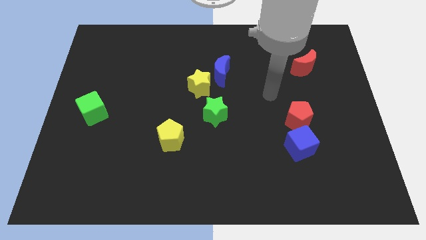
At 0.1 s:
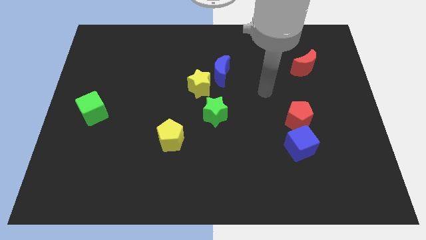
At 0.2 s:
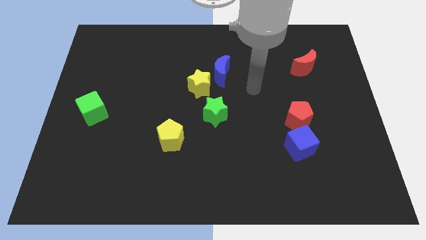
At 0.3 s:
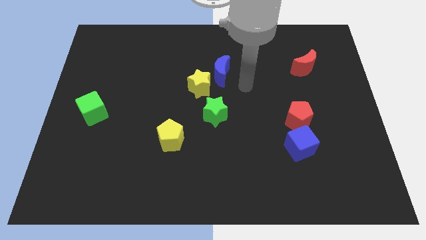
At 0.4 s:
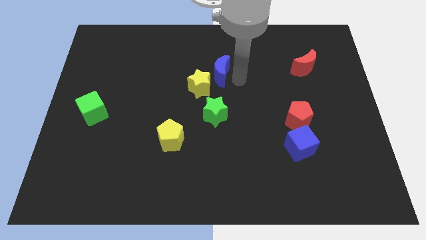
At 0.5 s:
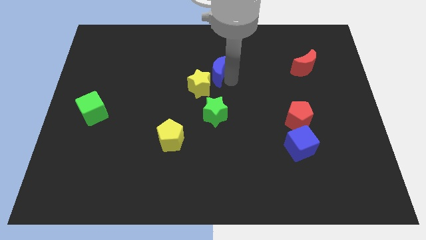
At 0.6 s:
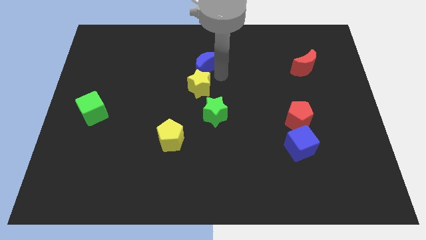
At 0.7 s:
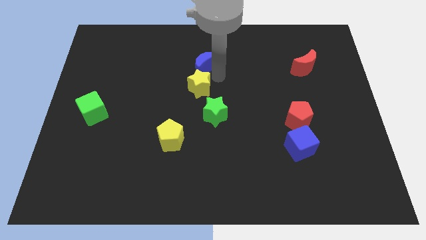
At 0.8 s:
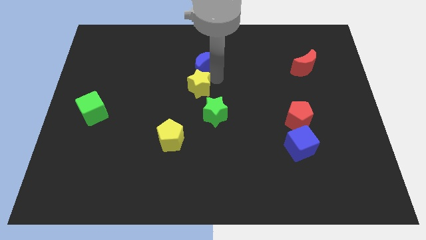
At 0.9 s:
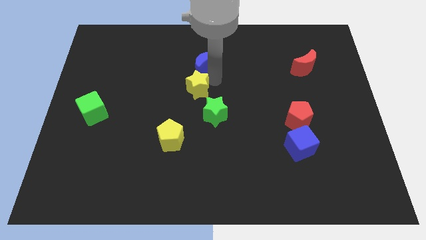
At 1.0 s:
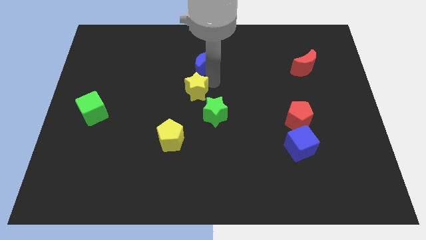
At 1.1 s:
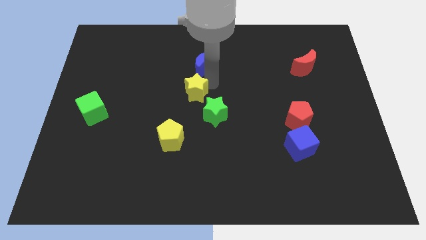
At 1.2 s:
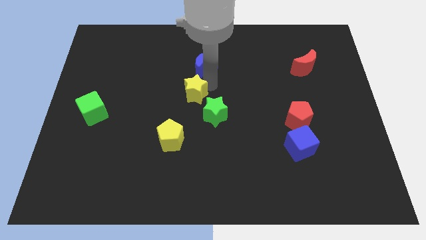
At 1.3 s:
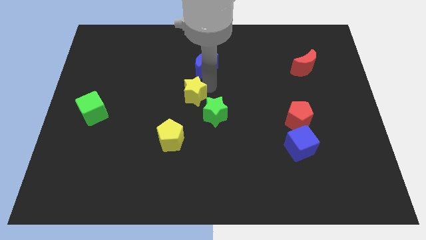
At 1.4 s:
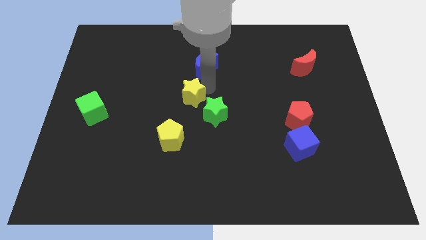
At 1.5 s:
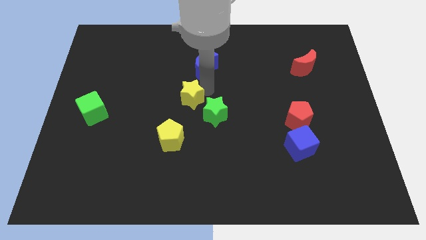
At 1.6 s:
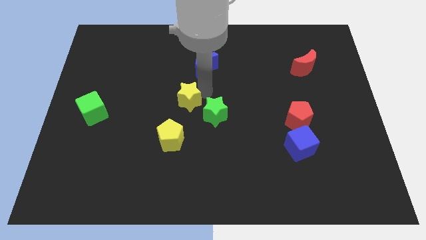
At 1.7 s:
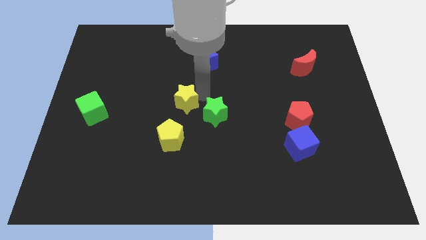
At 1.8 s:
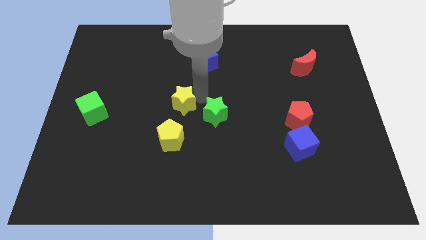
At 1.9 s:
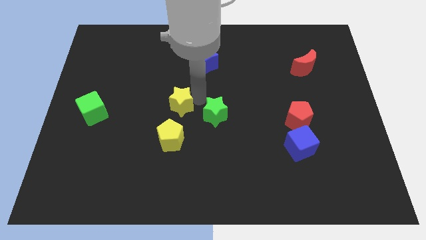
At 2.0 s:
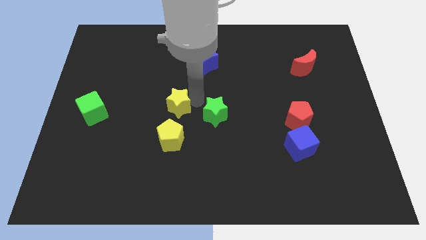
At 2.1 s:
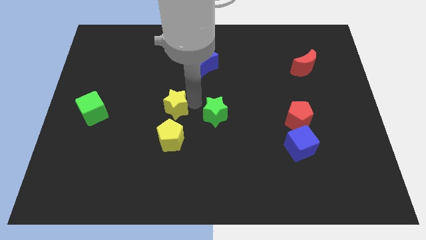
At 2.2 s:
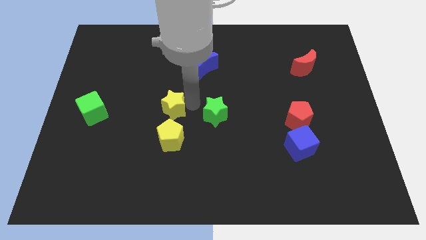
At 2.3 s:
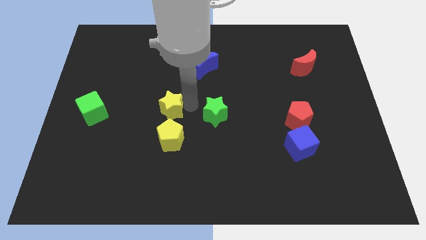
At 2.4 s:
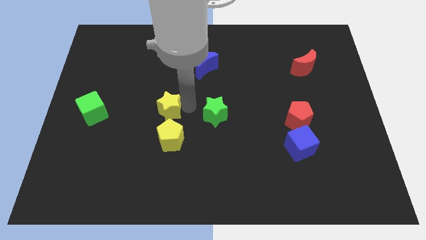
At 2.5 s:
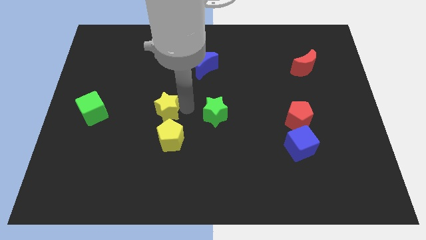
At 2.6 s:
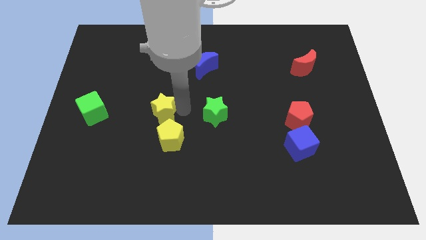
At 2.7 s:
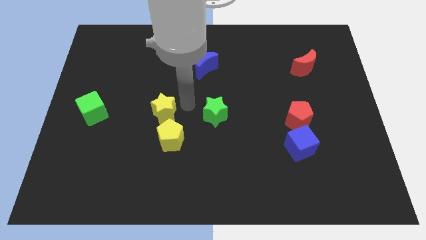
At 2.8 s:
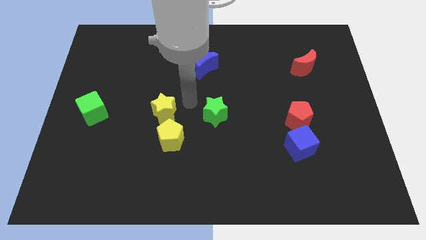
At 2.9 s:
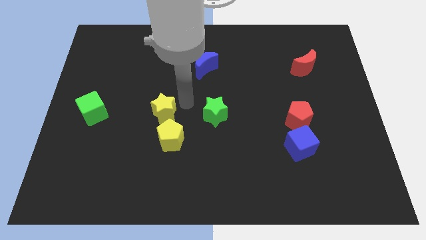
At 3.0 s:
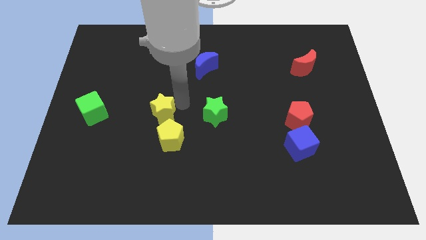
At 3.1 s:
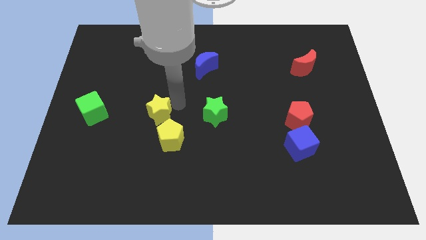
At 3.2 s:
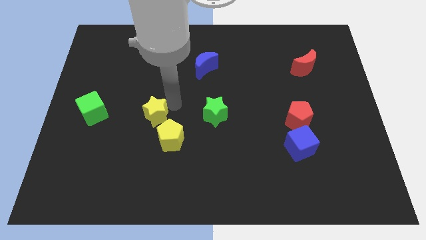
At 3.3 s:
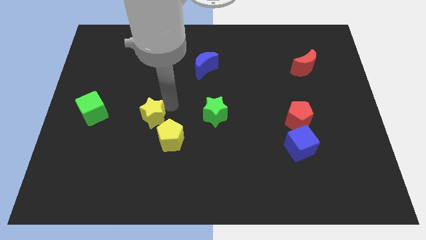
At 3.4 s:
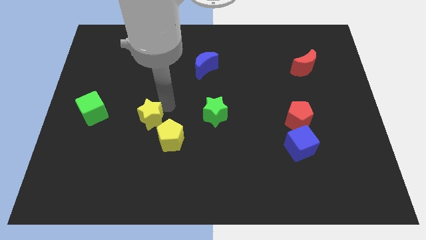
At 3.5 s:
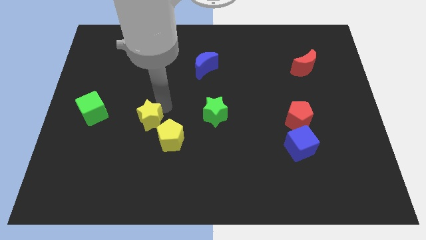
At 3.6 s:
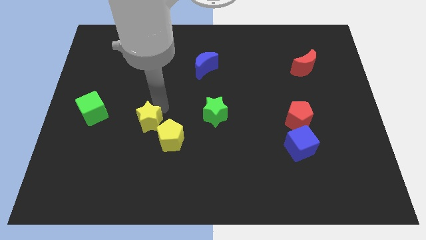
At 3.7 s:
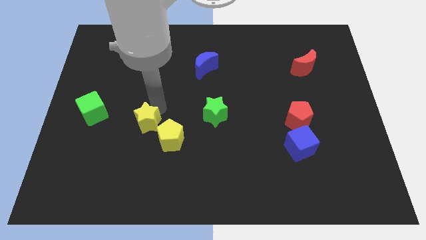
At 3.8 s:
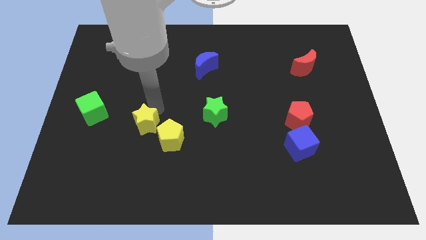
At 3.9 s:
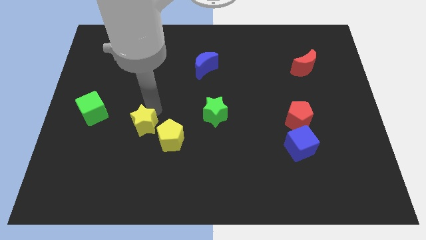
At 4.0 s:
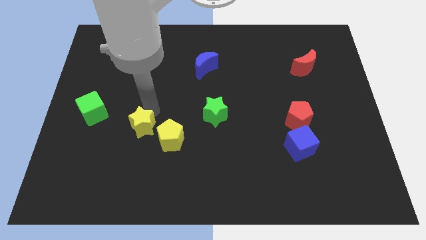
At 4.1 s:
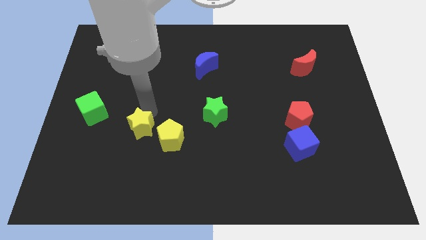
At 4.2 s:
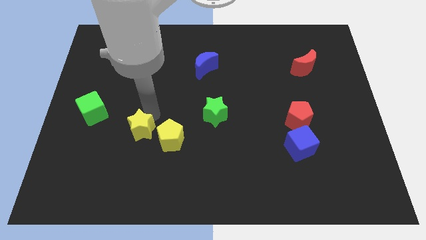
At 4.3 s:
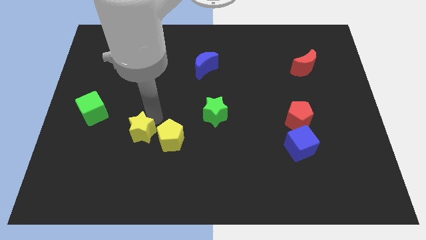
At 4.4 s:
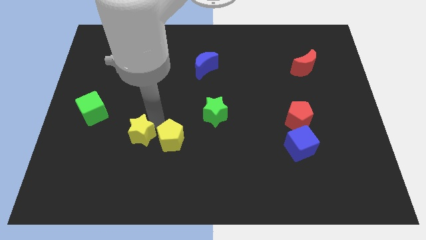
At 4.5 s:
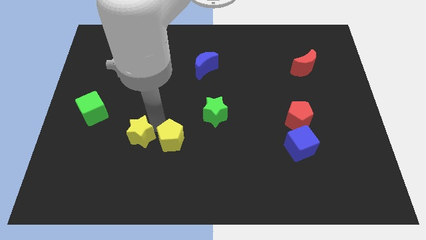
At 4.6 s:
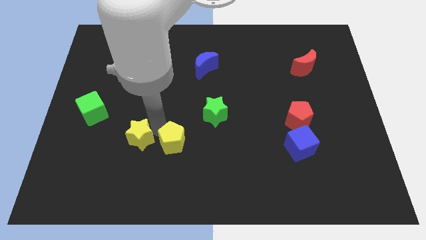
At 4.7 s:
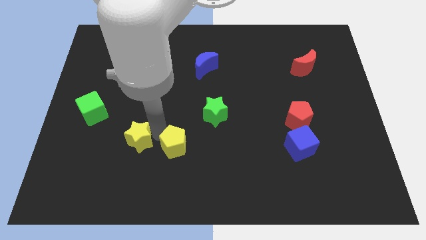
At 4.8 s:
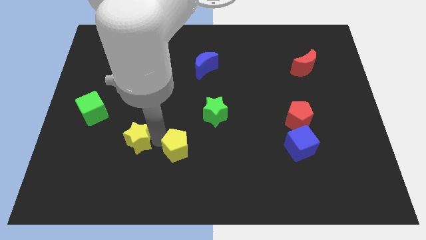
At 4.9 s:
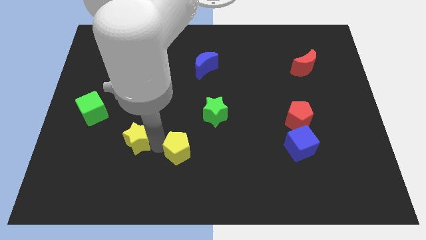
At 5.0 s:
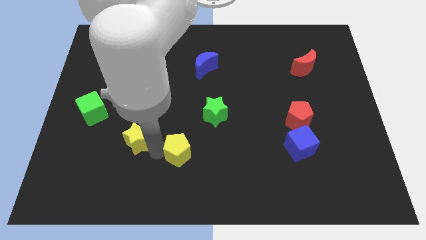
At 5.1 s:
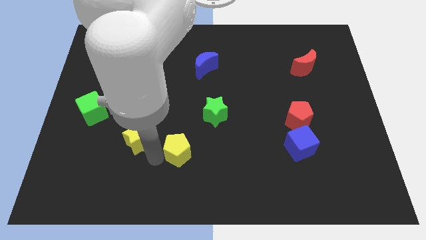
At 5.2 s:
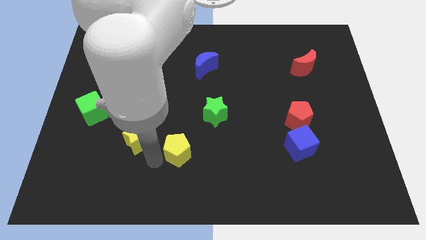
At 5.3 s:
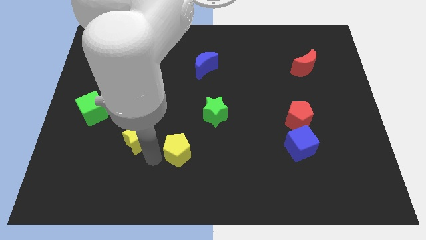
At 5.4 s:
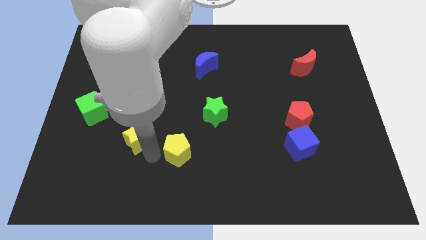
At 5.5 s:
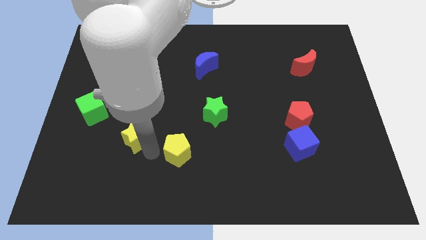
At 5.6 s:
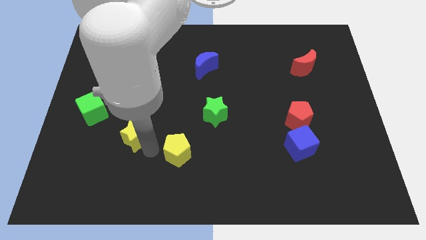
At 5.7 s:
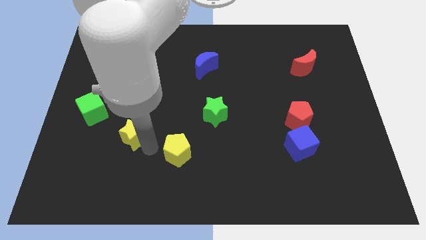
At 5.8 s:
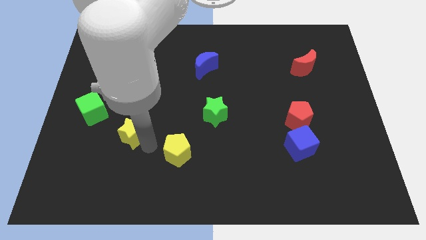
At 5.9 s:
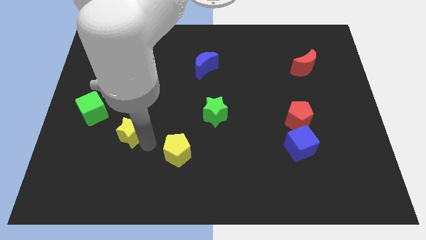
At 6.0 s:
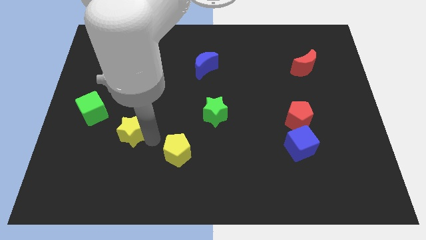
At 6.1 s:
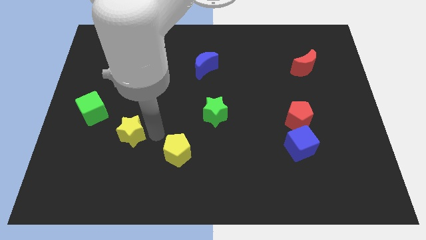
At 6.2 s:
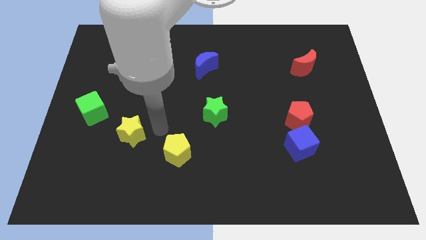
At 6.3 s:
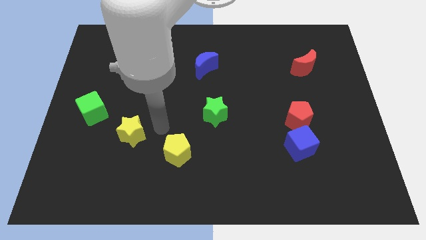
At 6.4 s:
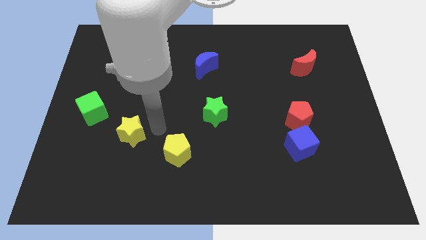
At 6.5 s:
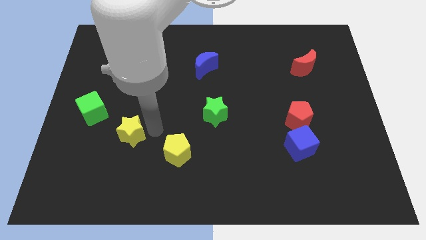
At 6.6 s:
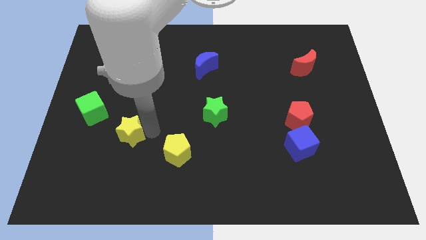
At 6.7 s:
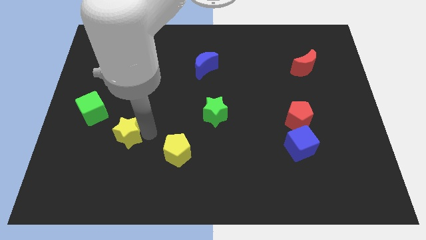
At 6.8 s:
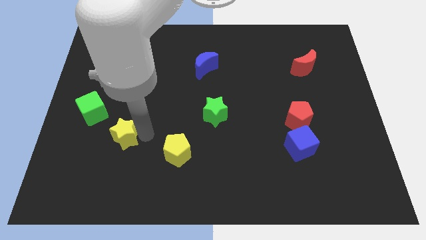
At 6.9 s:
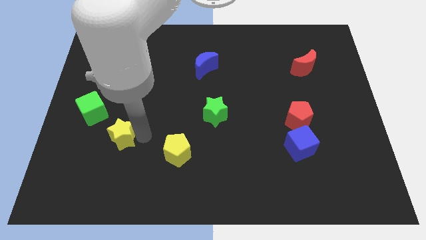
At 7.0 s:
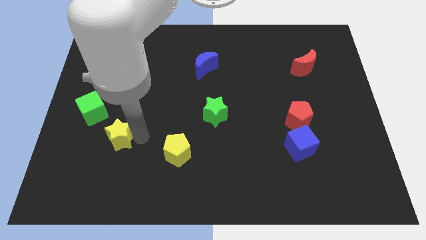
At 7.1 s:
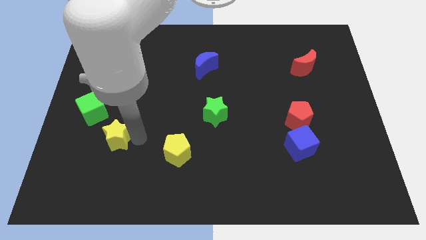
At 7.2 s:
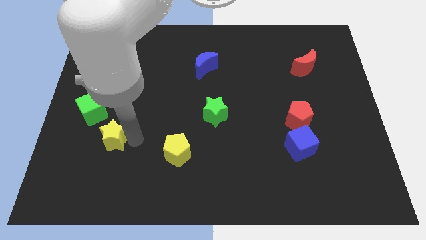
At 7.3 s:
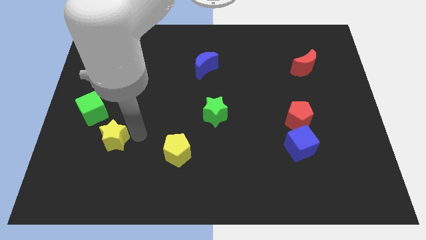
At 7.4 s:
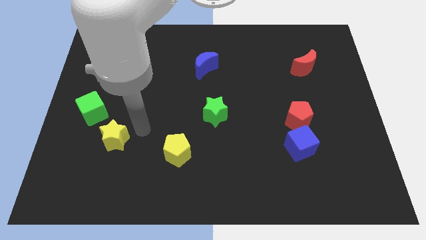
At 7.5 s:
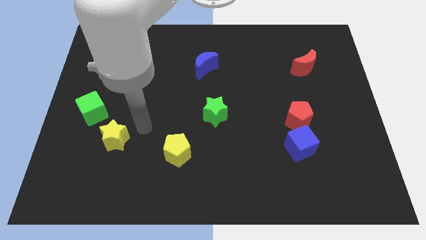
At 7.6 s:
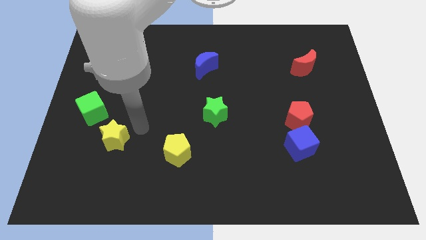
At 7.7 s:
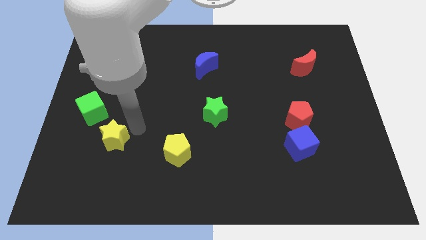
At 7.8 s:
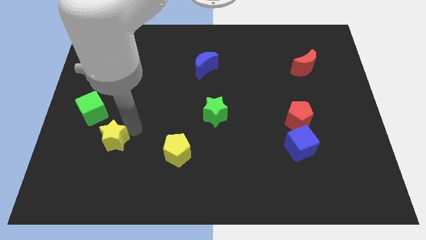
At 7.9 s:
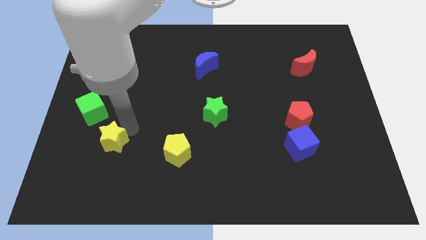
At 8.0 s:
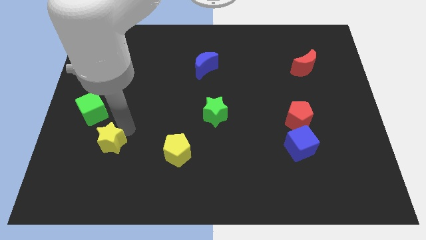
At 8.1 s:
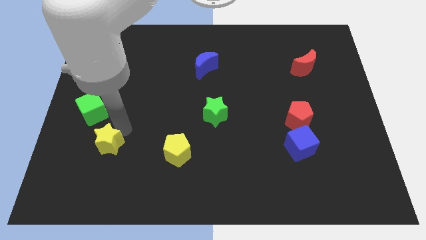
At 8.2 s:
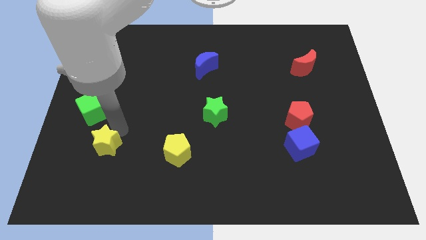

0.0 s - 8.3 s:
put the yellow star to the bottom of the green cube
